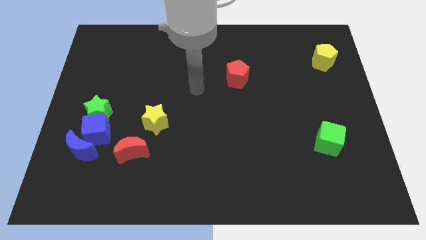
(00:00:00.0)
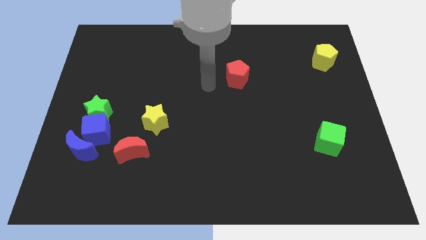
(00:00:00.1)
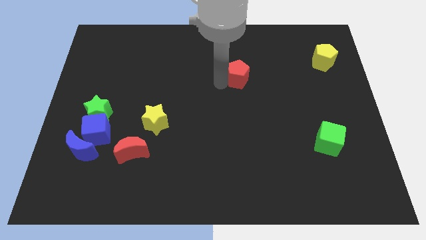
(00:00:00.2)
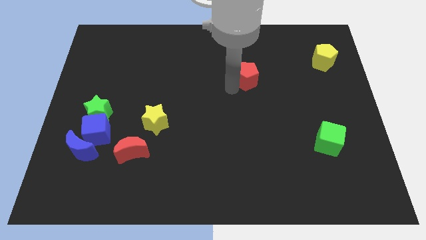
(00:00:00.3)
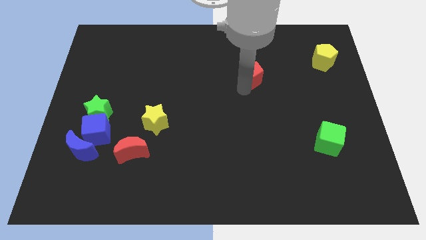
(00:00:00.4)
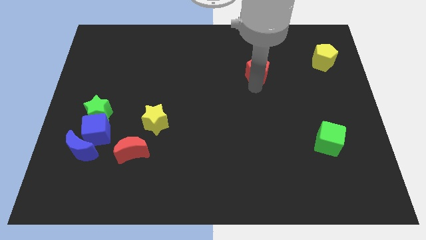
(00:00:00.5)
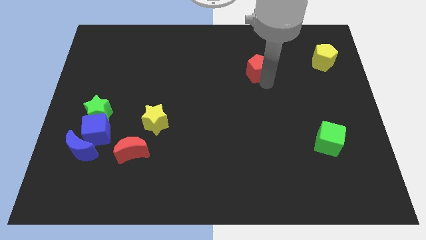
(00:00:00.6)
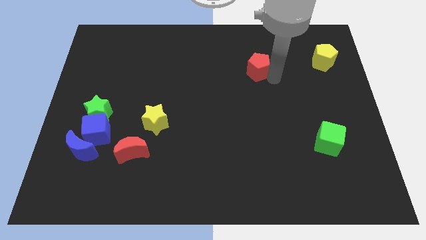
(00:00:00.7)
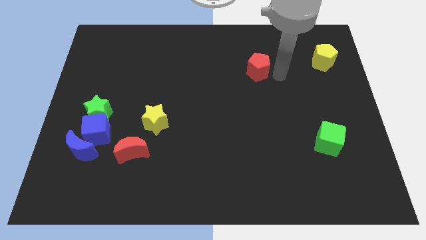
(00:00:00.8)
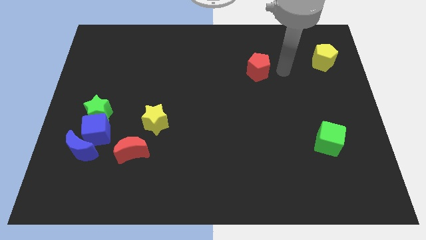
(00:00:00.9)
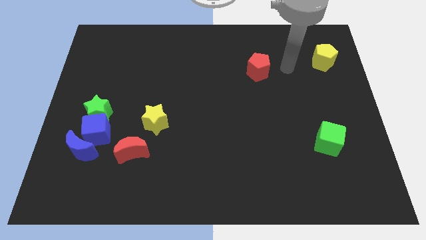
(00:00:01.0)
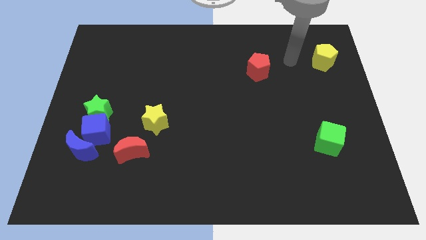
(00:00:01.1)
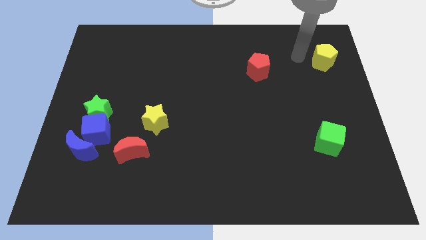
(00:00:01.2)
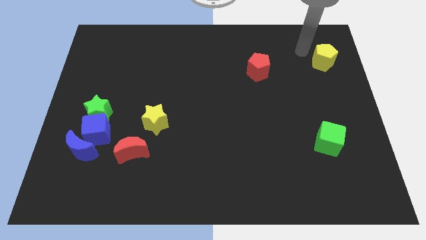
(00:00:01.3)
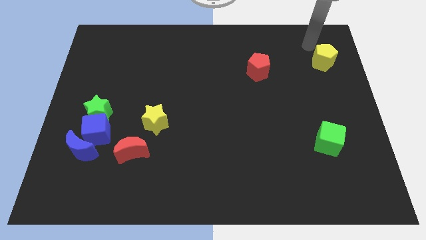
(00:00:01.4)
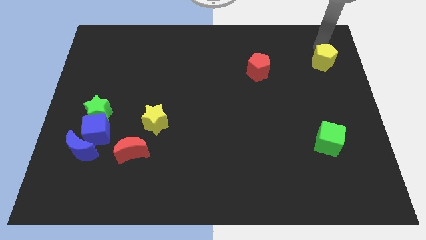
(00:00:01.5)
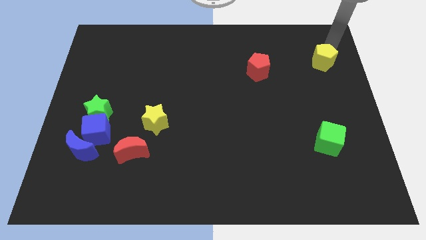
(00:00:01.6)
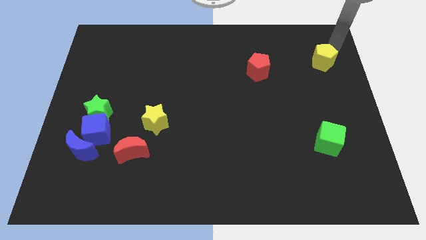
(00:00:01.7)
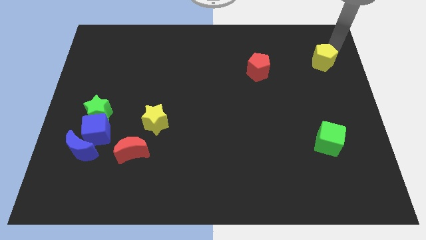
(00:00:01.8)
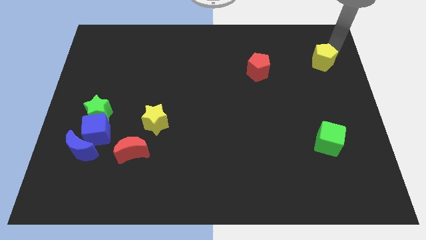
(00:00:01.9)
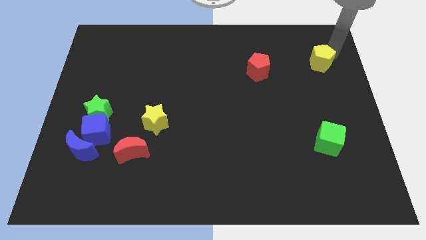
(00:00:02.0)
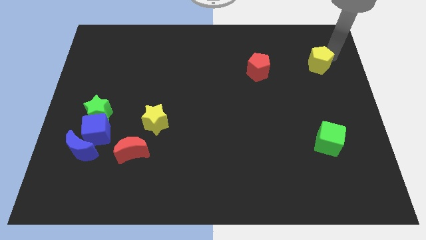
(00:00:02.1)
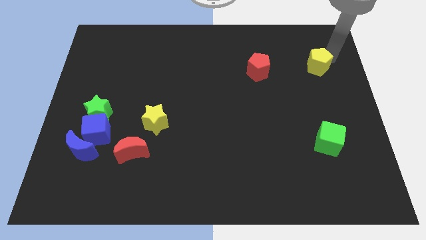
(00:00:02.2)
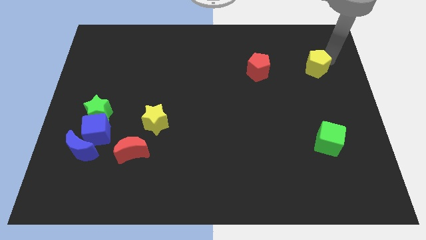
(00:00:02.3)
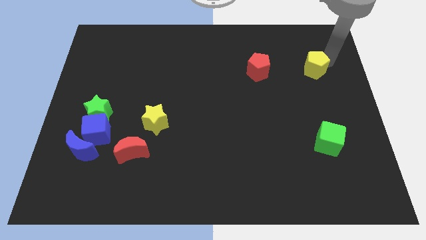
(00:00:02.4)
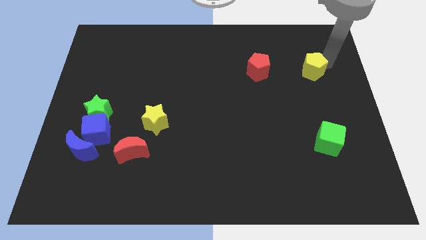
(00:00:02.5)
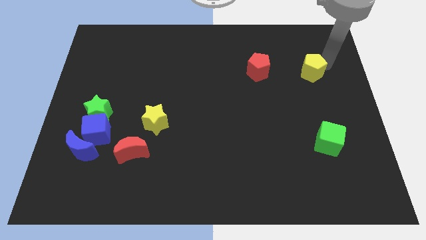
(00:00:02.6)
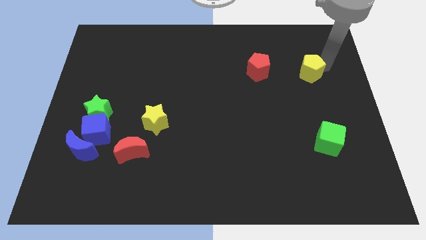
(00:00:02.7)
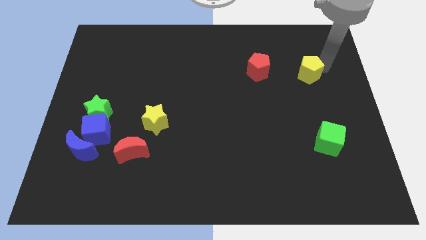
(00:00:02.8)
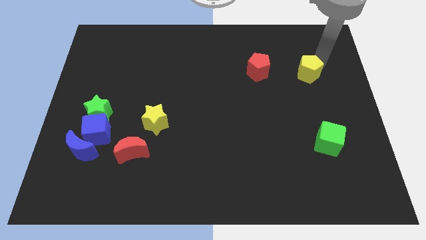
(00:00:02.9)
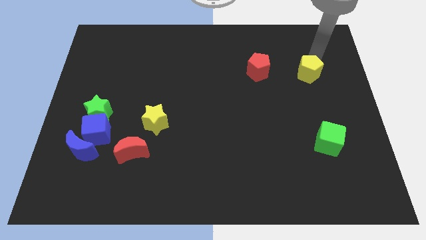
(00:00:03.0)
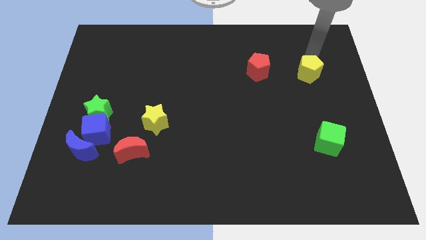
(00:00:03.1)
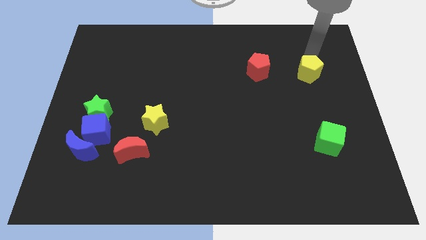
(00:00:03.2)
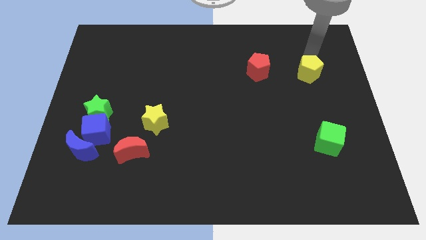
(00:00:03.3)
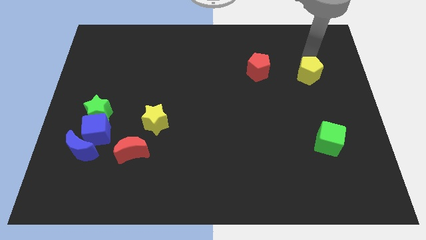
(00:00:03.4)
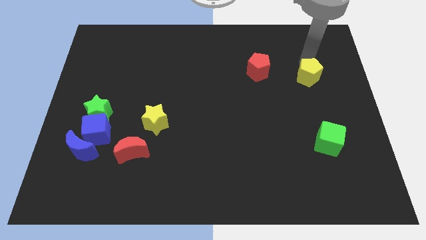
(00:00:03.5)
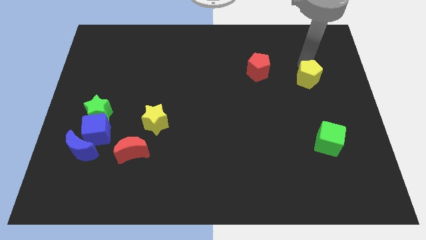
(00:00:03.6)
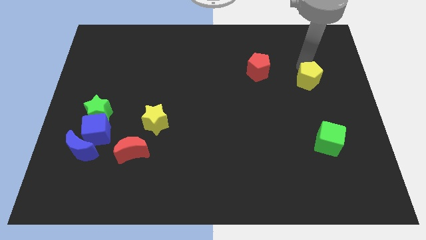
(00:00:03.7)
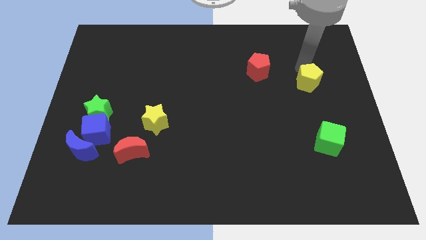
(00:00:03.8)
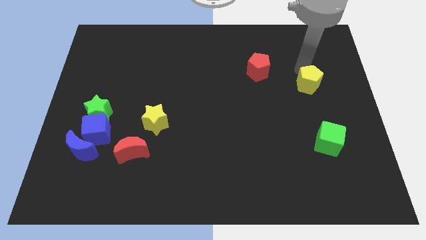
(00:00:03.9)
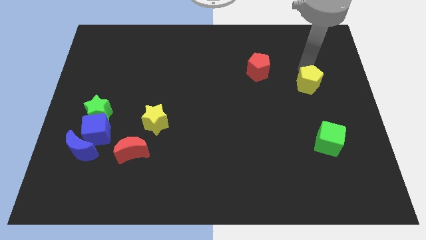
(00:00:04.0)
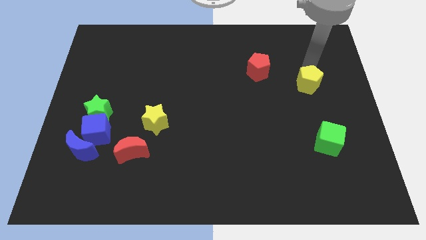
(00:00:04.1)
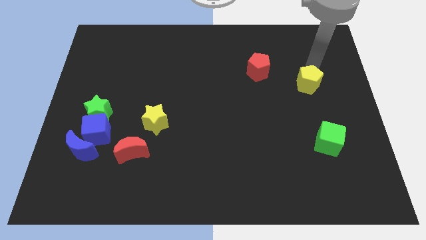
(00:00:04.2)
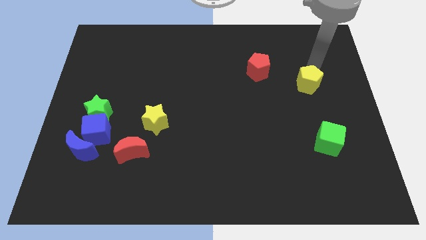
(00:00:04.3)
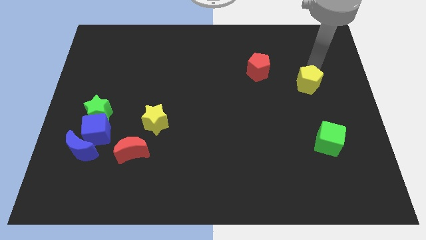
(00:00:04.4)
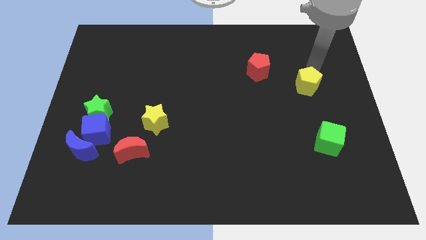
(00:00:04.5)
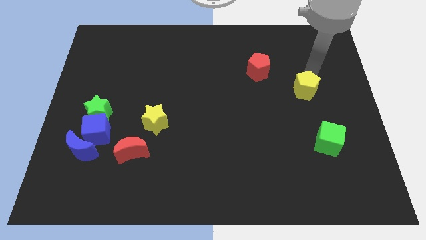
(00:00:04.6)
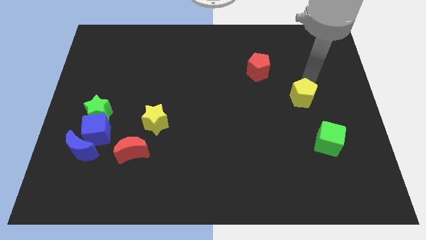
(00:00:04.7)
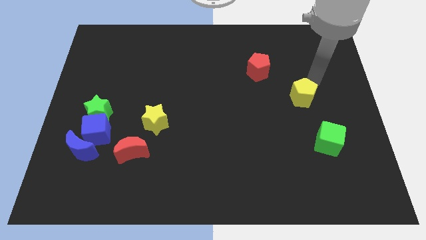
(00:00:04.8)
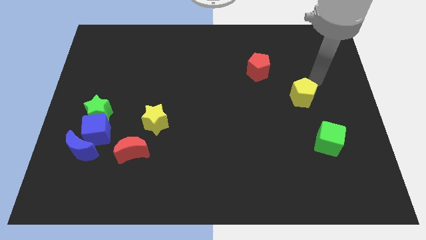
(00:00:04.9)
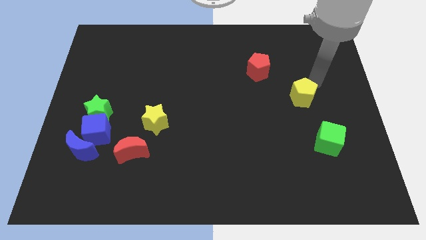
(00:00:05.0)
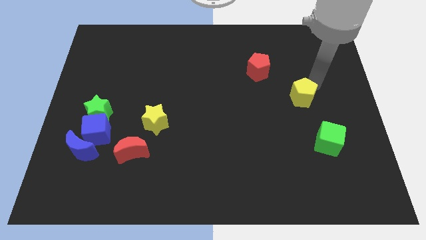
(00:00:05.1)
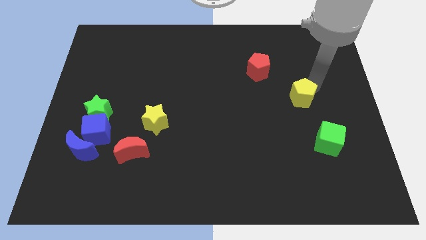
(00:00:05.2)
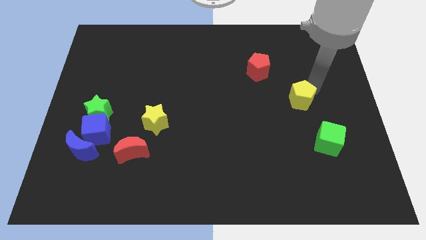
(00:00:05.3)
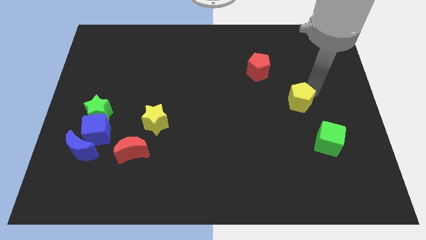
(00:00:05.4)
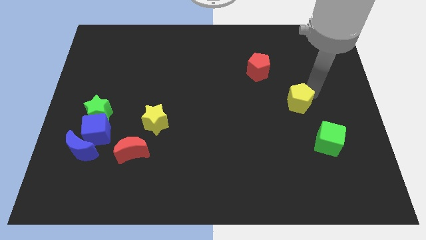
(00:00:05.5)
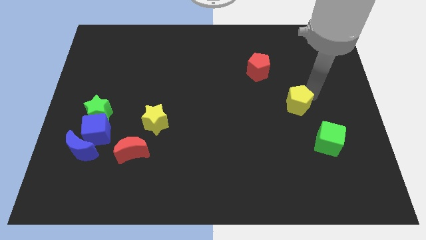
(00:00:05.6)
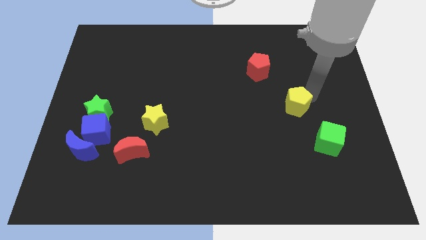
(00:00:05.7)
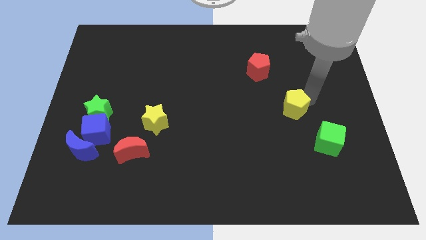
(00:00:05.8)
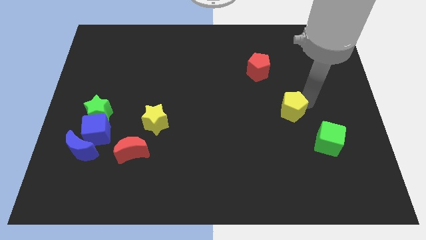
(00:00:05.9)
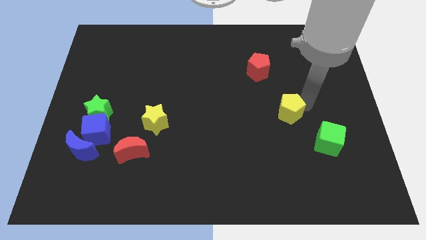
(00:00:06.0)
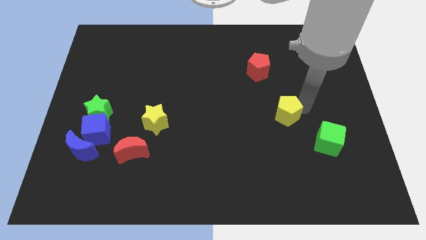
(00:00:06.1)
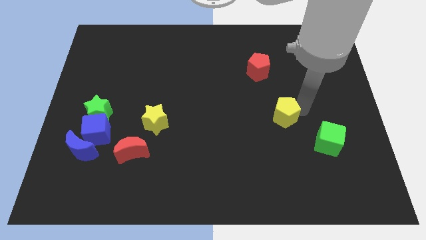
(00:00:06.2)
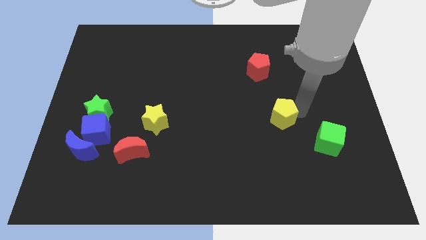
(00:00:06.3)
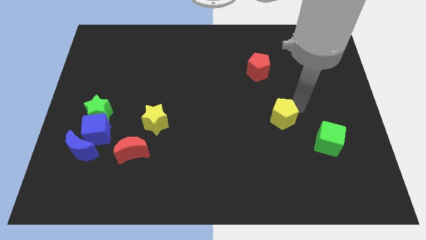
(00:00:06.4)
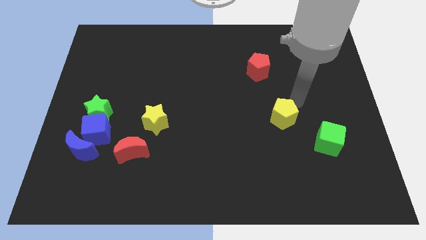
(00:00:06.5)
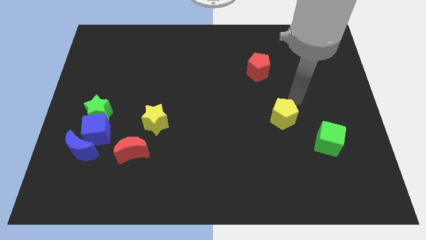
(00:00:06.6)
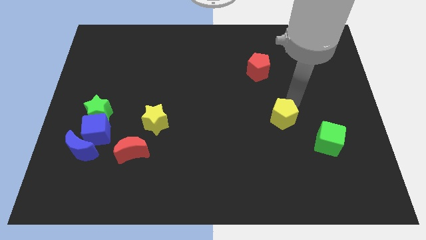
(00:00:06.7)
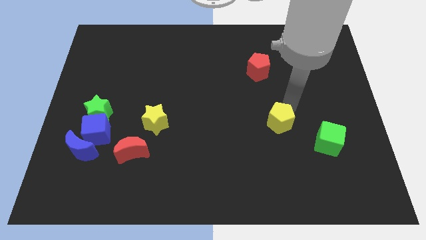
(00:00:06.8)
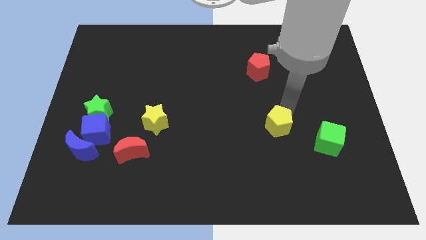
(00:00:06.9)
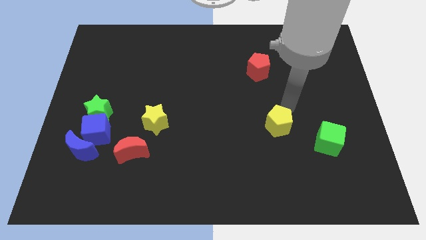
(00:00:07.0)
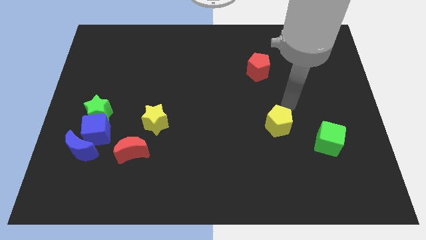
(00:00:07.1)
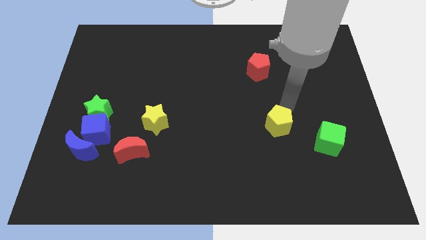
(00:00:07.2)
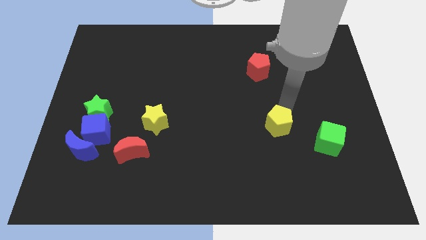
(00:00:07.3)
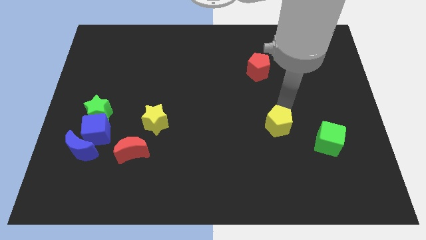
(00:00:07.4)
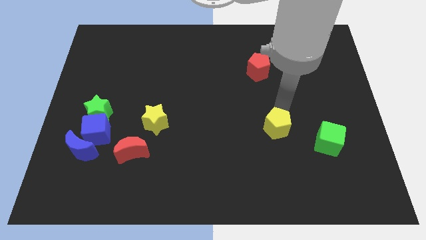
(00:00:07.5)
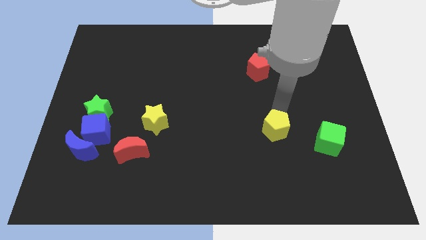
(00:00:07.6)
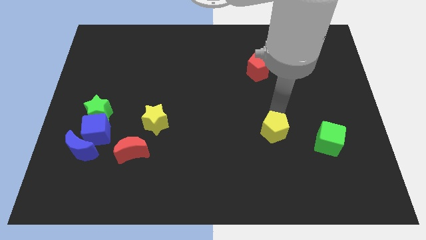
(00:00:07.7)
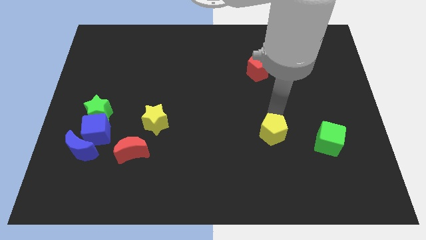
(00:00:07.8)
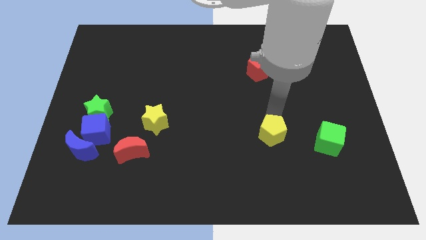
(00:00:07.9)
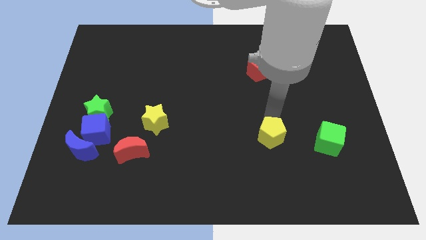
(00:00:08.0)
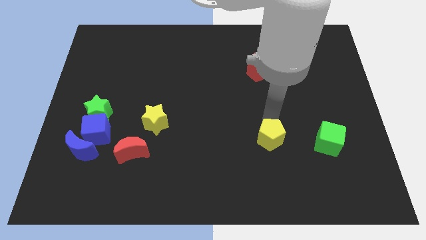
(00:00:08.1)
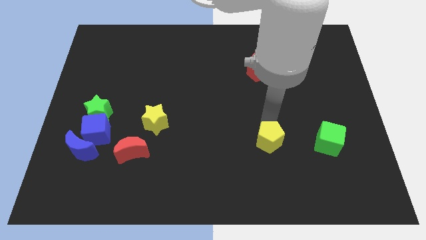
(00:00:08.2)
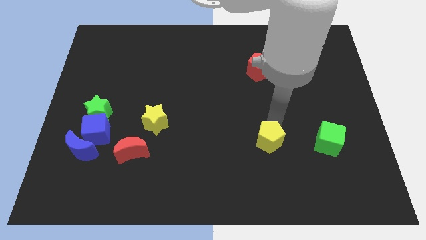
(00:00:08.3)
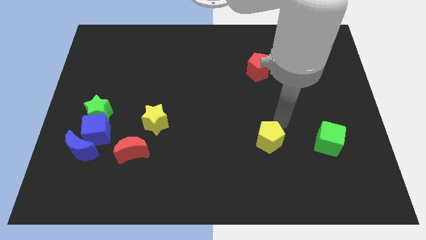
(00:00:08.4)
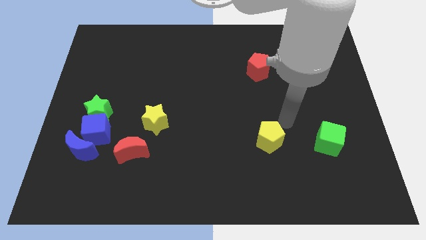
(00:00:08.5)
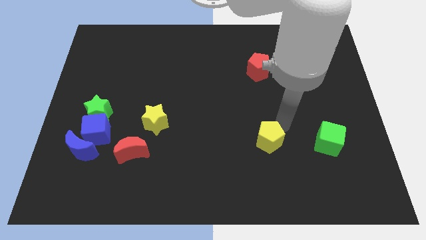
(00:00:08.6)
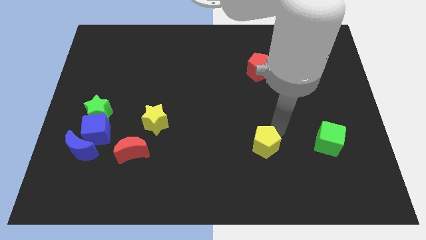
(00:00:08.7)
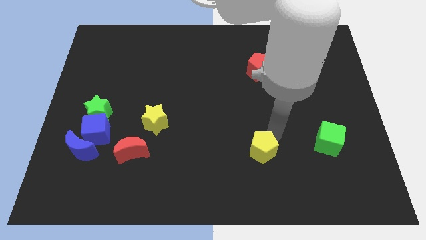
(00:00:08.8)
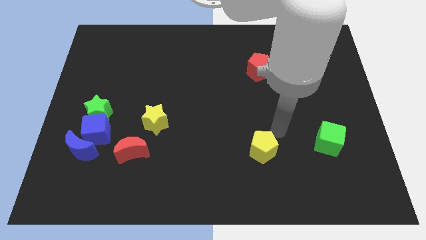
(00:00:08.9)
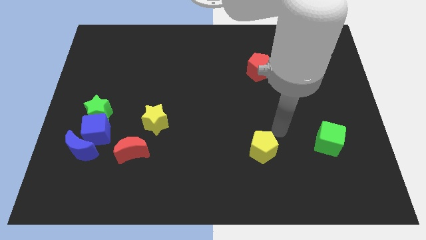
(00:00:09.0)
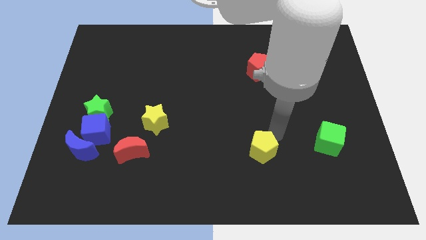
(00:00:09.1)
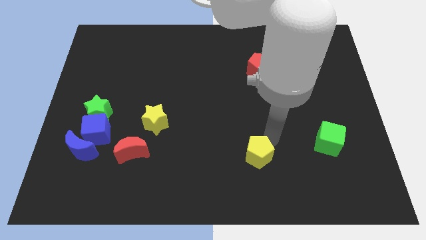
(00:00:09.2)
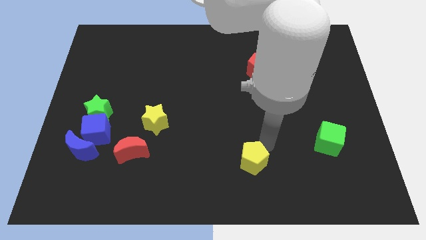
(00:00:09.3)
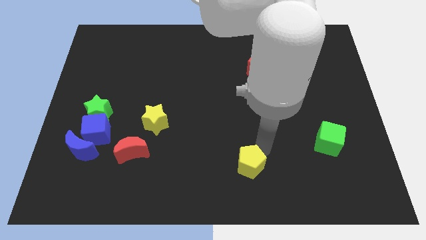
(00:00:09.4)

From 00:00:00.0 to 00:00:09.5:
move the yellow pentagon to the bottom side
